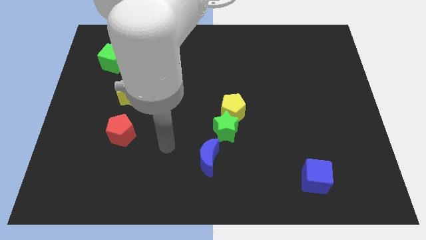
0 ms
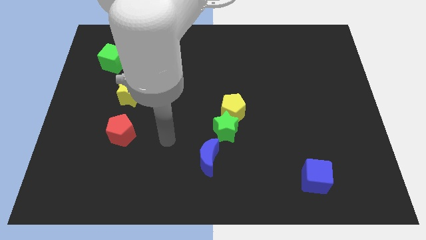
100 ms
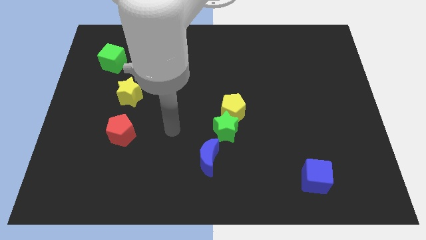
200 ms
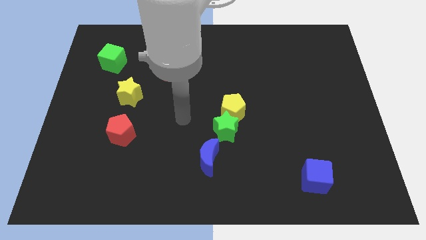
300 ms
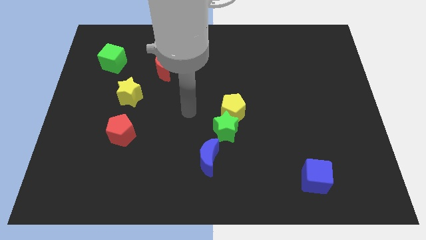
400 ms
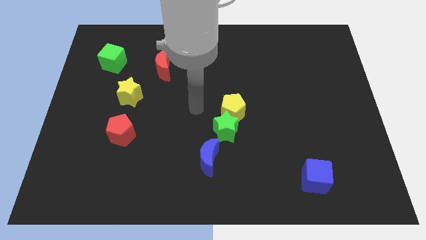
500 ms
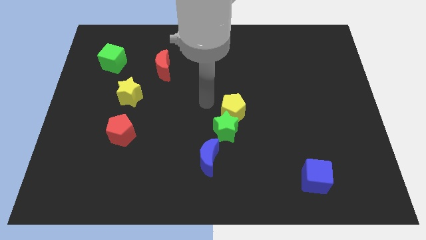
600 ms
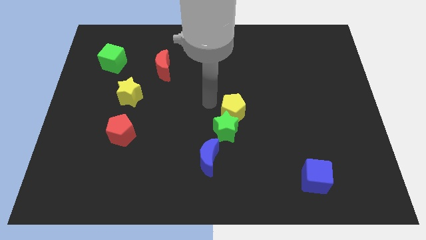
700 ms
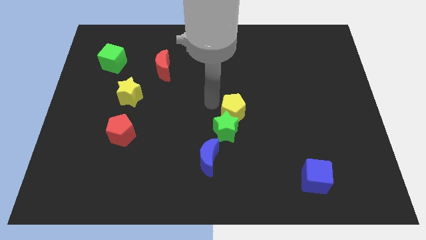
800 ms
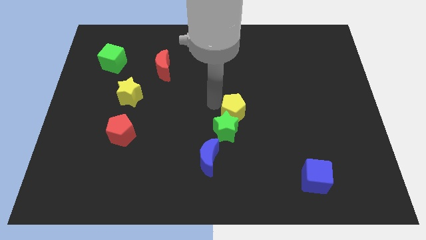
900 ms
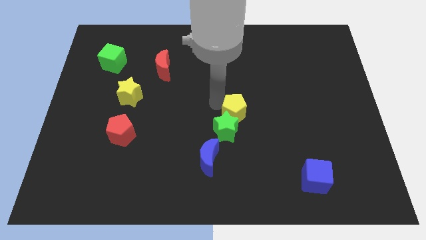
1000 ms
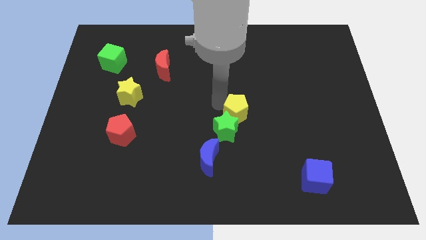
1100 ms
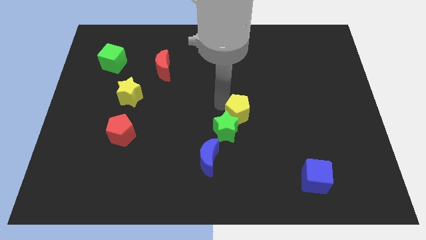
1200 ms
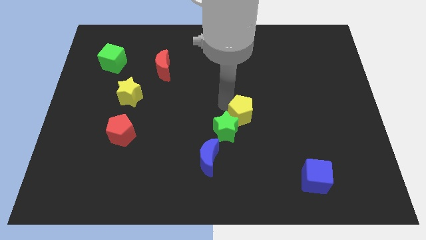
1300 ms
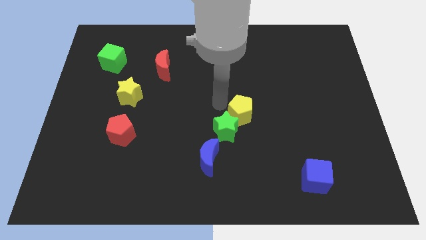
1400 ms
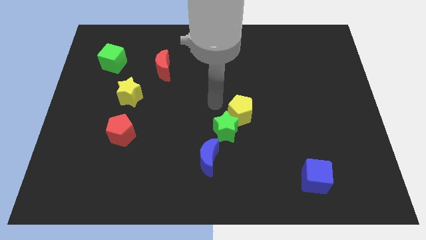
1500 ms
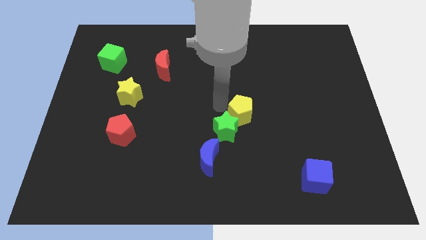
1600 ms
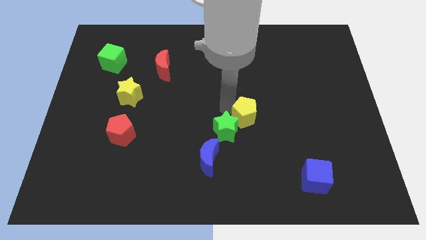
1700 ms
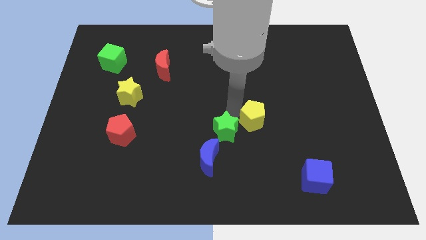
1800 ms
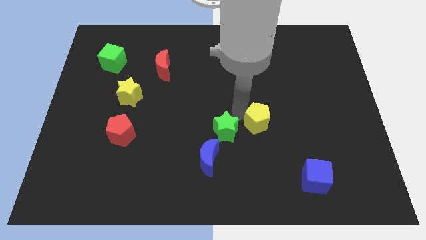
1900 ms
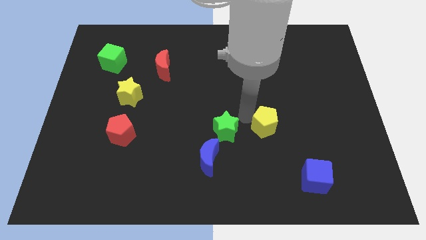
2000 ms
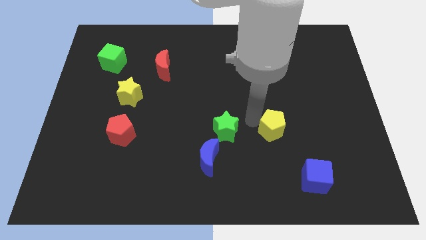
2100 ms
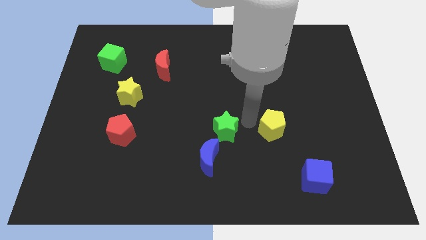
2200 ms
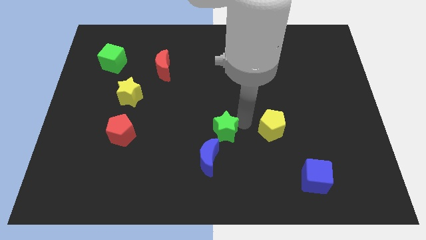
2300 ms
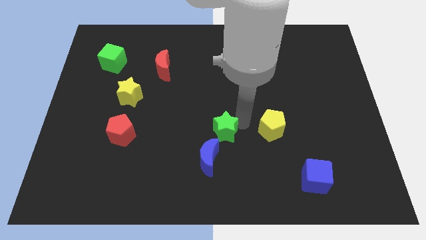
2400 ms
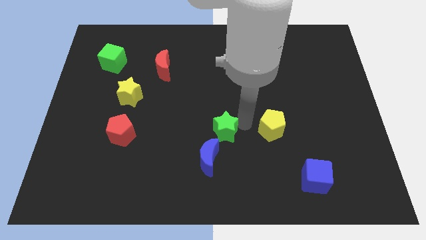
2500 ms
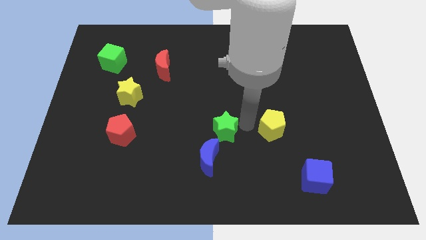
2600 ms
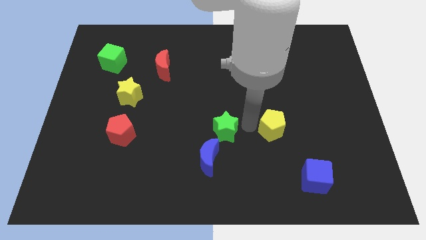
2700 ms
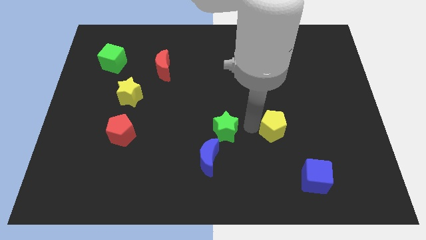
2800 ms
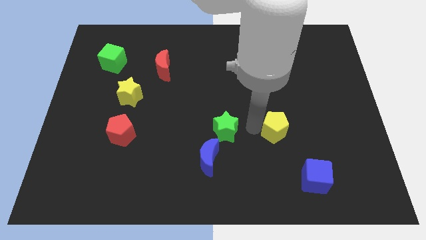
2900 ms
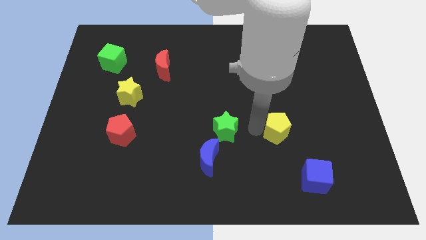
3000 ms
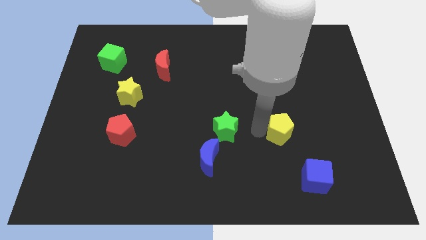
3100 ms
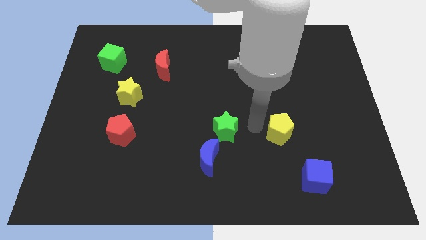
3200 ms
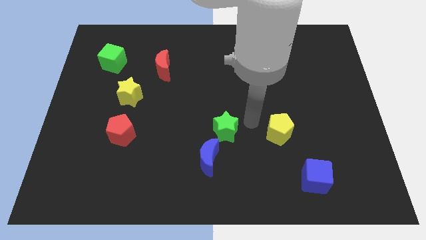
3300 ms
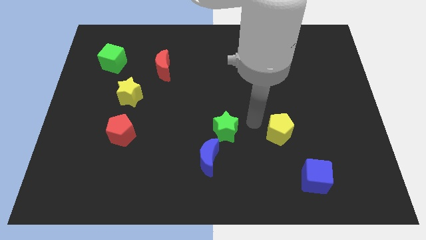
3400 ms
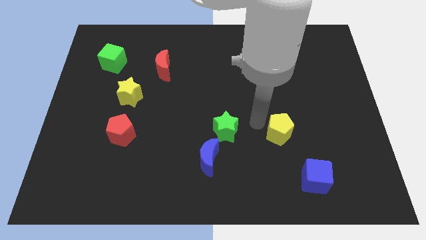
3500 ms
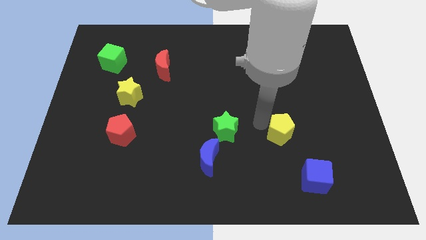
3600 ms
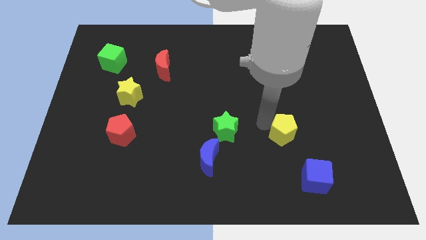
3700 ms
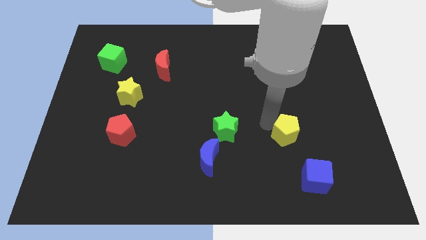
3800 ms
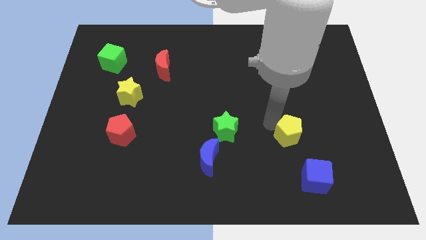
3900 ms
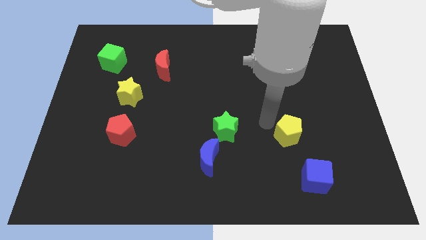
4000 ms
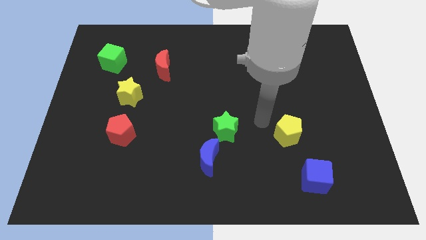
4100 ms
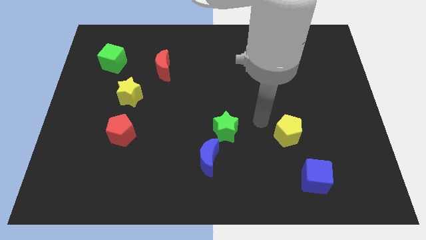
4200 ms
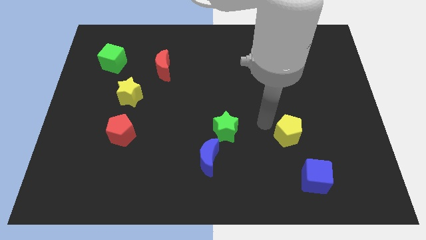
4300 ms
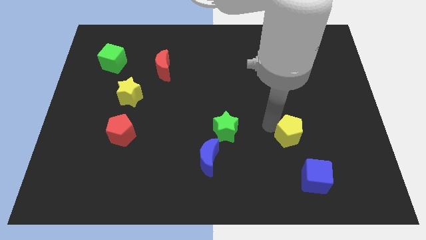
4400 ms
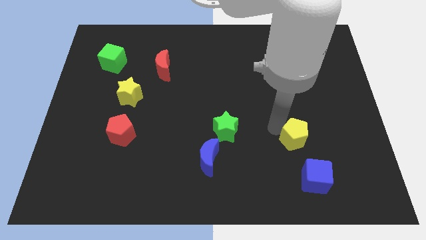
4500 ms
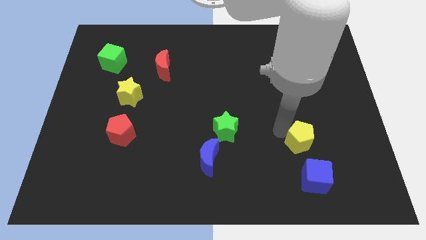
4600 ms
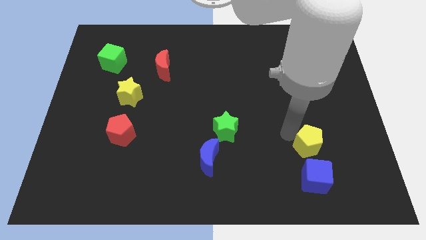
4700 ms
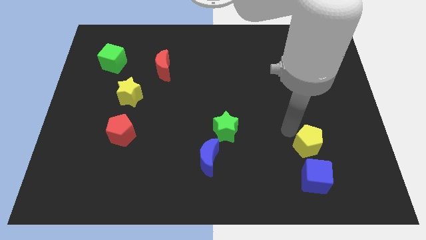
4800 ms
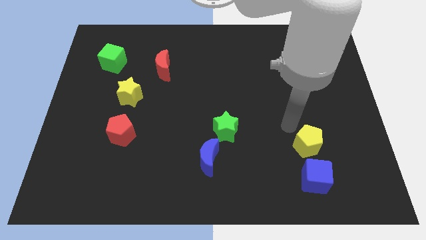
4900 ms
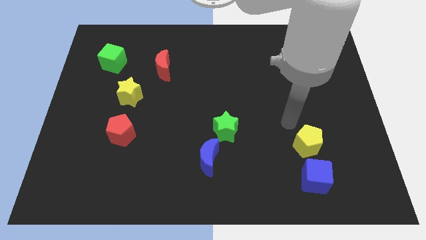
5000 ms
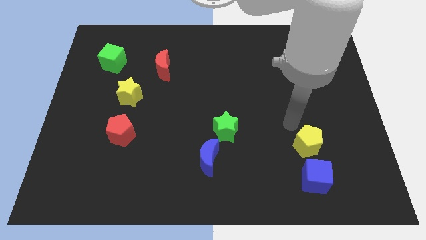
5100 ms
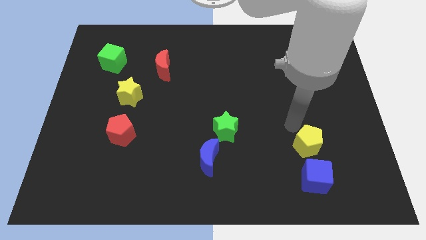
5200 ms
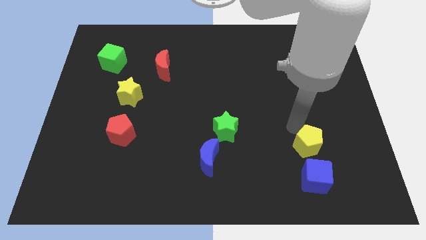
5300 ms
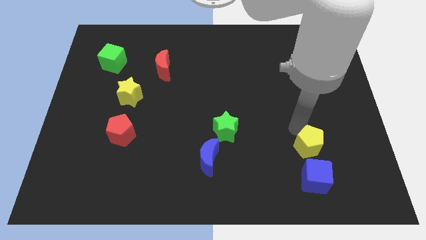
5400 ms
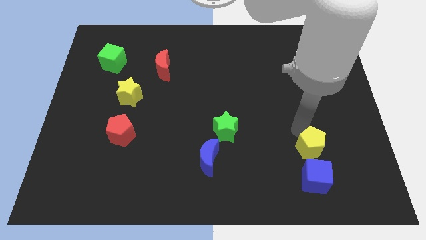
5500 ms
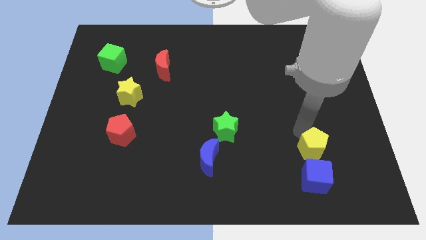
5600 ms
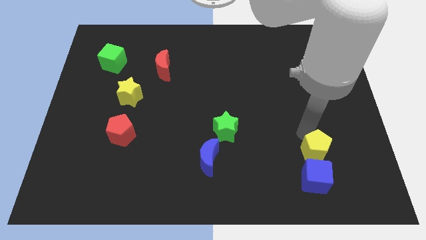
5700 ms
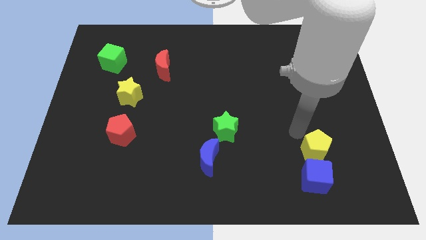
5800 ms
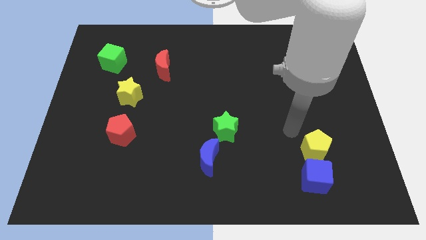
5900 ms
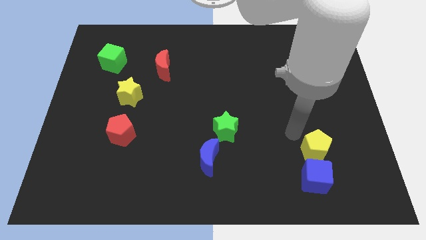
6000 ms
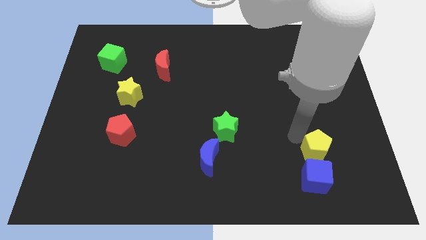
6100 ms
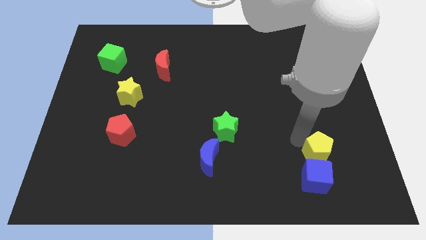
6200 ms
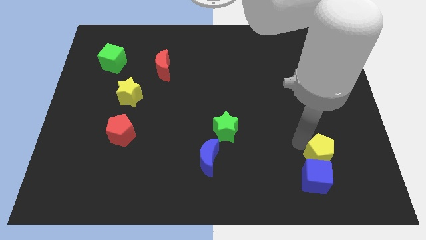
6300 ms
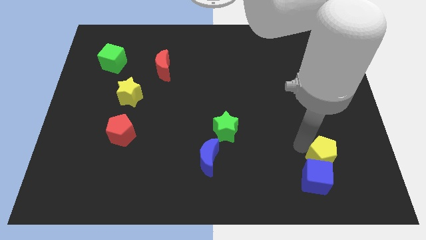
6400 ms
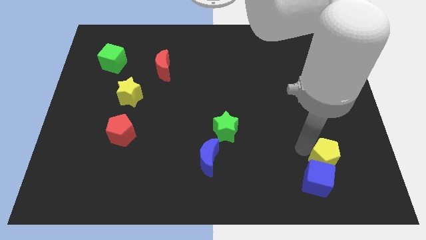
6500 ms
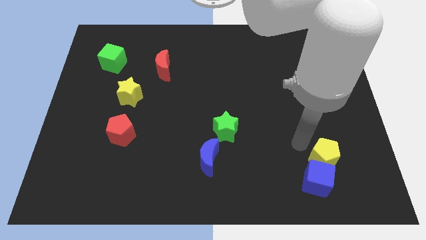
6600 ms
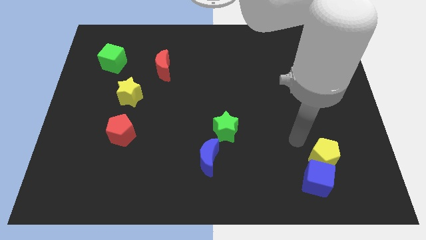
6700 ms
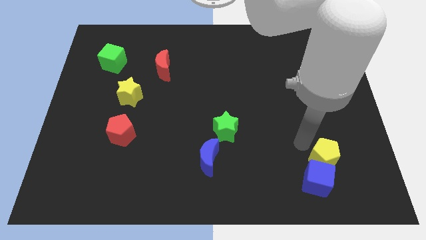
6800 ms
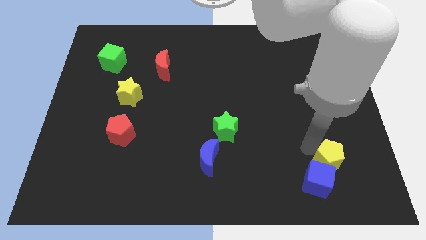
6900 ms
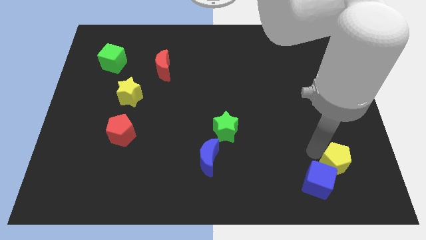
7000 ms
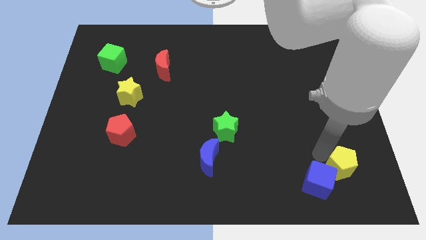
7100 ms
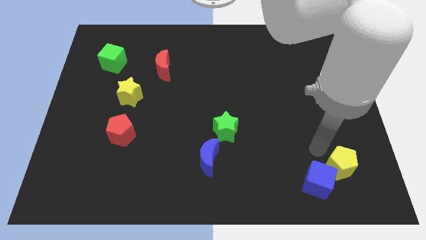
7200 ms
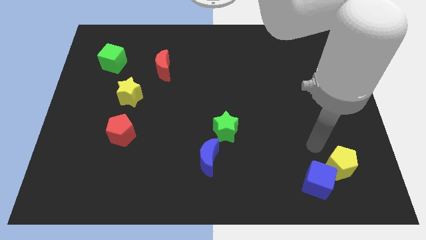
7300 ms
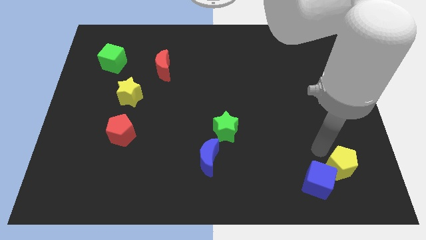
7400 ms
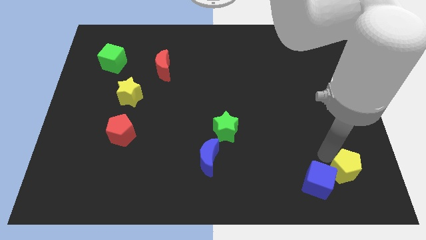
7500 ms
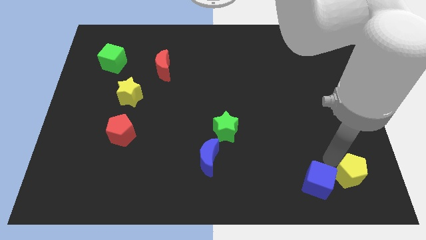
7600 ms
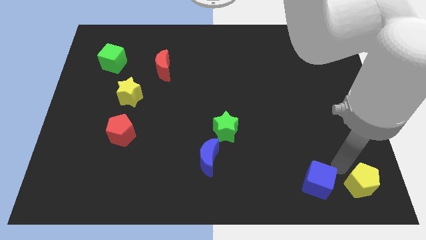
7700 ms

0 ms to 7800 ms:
push the yellow pentagon to the lower right corner
